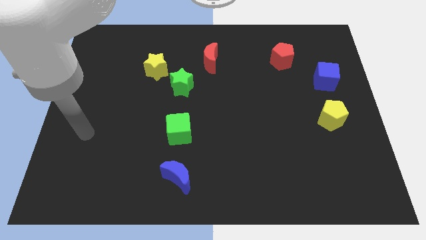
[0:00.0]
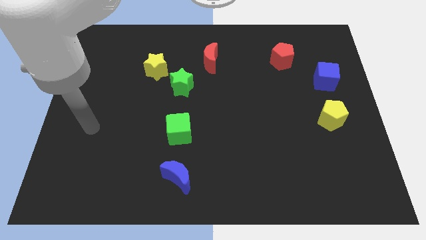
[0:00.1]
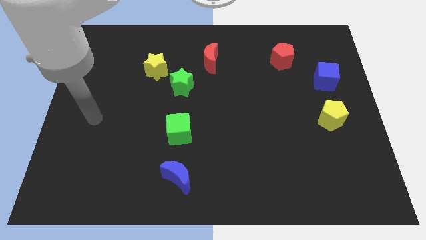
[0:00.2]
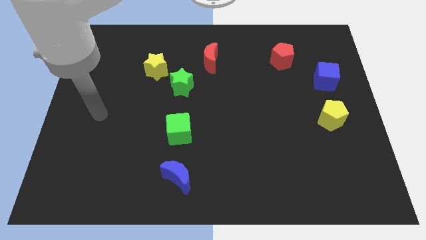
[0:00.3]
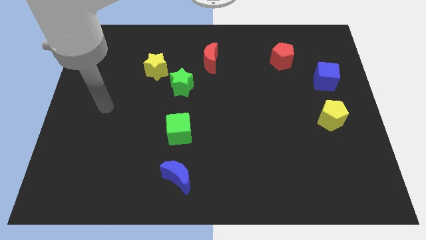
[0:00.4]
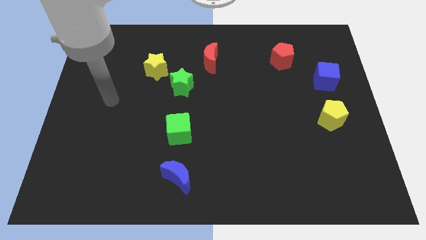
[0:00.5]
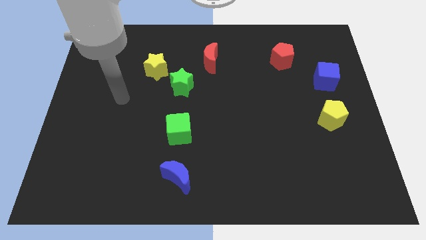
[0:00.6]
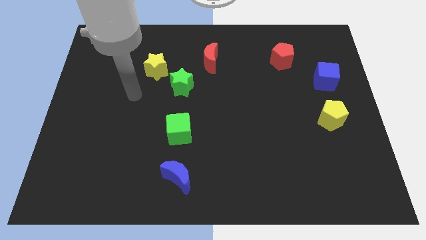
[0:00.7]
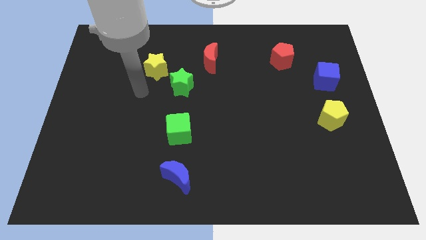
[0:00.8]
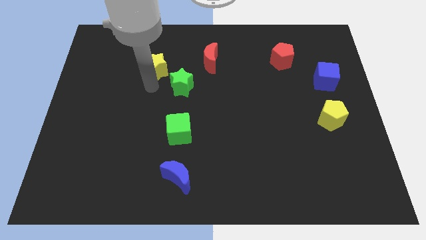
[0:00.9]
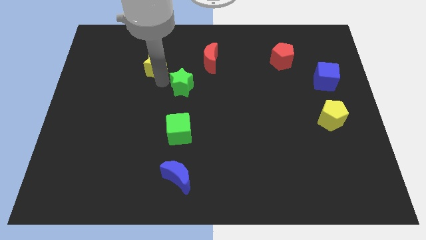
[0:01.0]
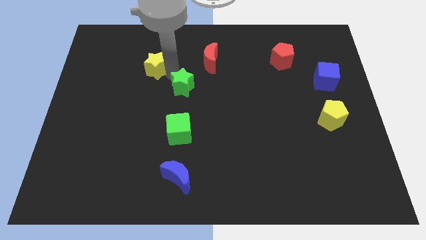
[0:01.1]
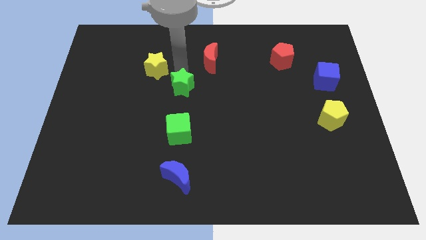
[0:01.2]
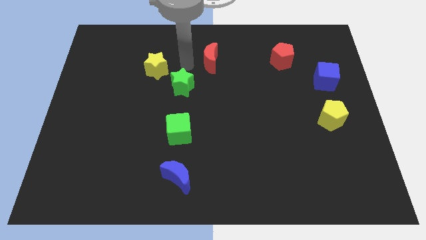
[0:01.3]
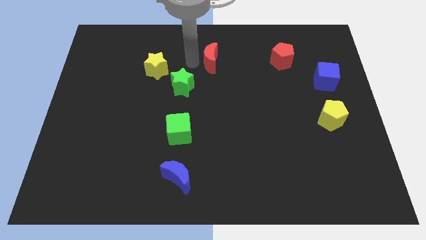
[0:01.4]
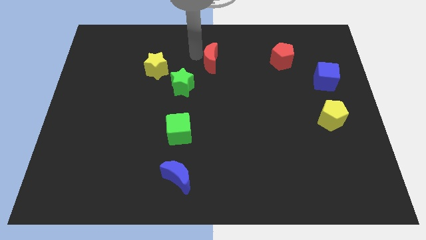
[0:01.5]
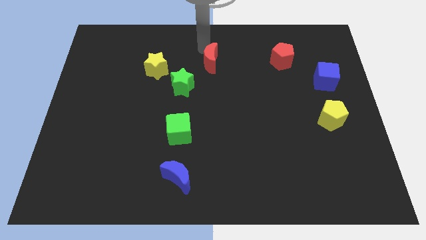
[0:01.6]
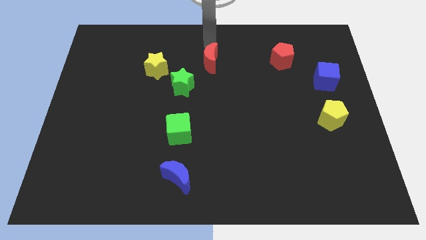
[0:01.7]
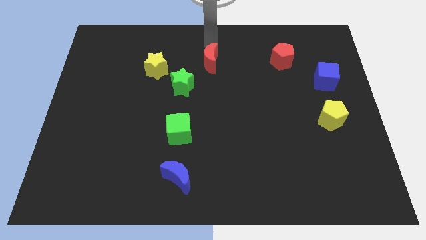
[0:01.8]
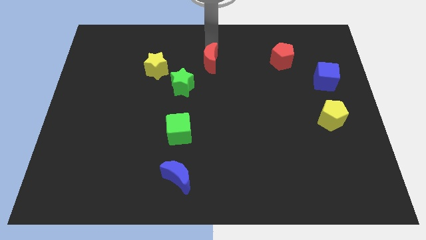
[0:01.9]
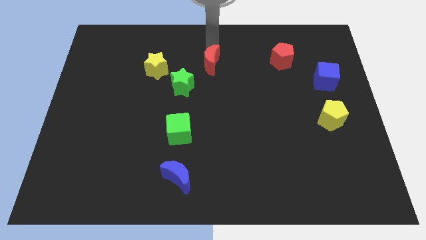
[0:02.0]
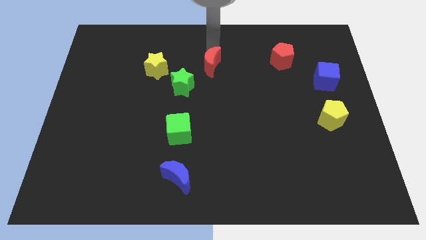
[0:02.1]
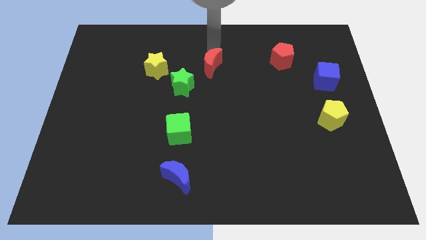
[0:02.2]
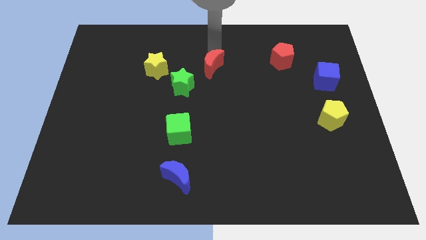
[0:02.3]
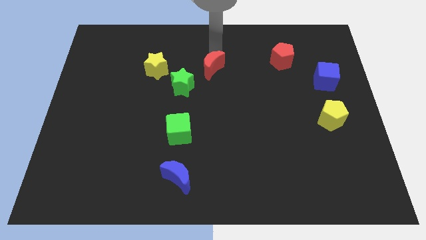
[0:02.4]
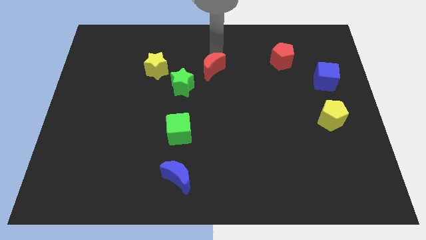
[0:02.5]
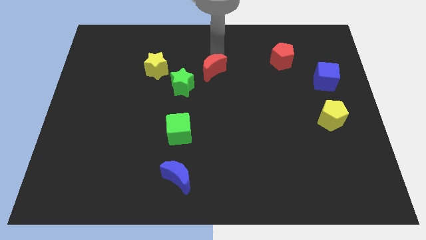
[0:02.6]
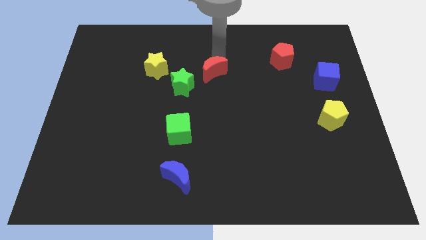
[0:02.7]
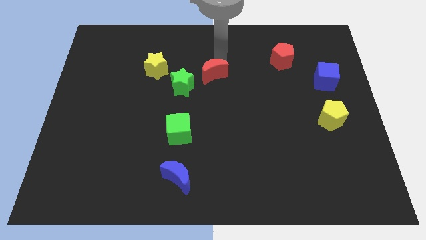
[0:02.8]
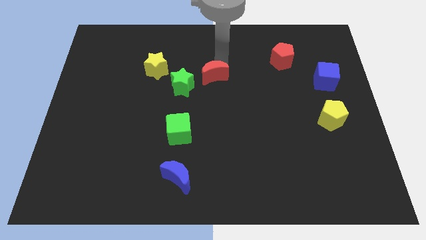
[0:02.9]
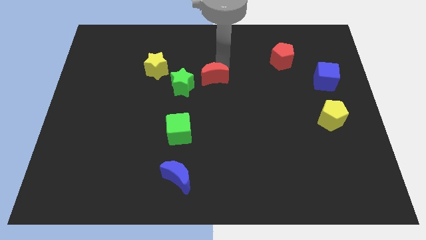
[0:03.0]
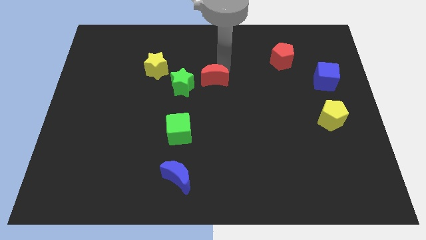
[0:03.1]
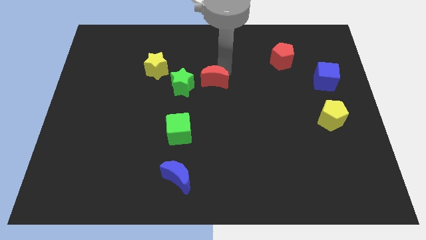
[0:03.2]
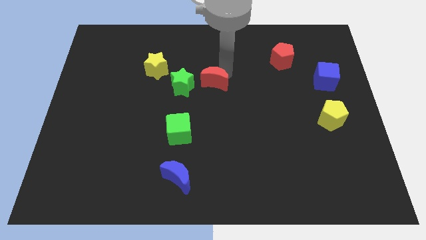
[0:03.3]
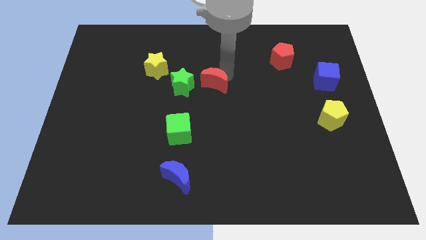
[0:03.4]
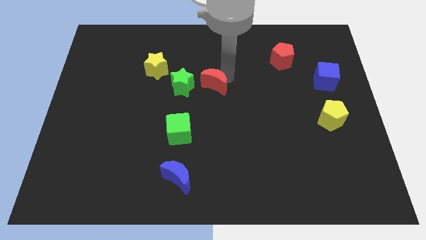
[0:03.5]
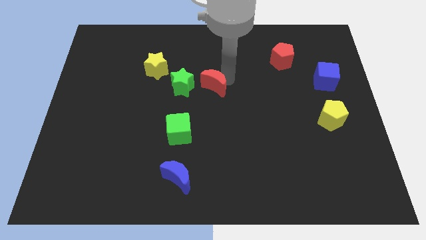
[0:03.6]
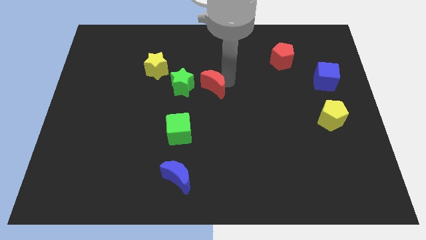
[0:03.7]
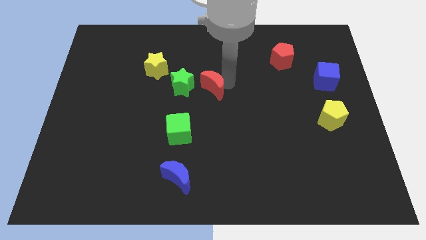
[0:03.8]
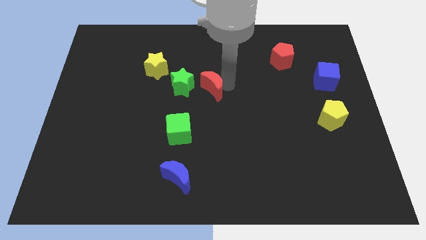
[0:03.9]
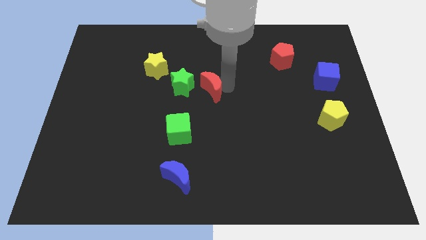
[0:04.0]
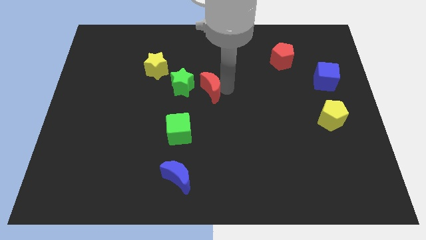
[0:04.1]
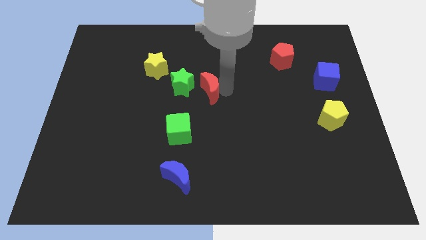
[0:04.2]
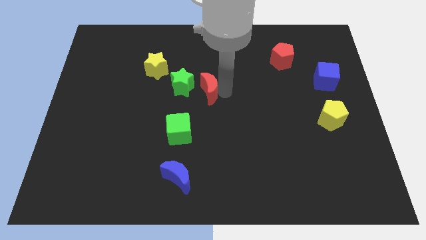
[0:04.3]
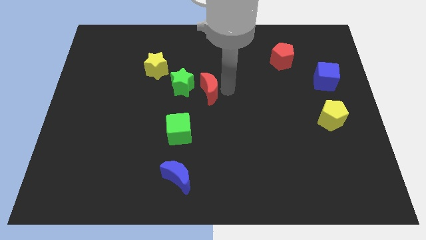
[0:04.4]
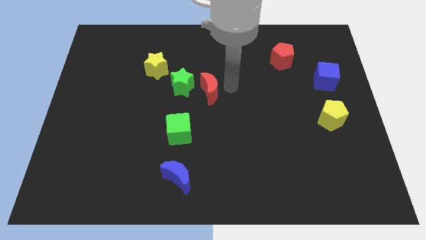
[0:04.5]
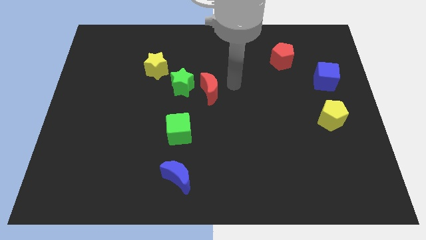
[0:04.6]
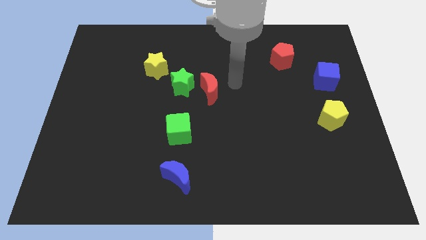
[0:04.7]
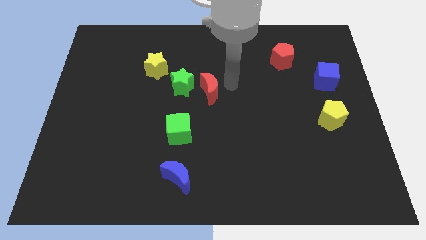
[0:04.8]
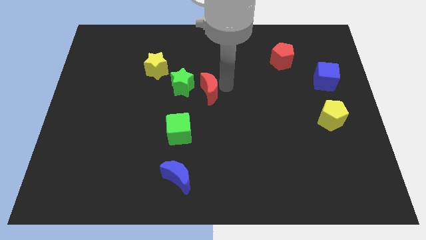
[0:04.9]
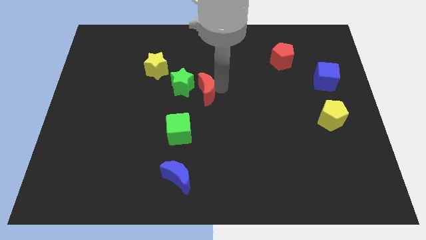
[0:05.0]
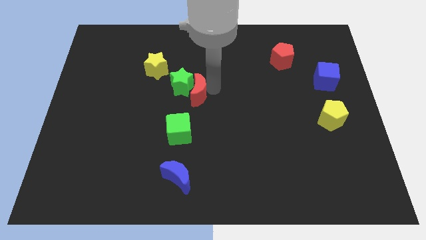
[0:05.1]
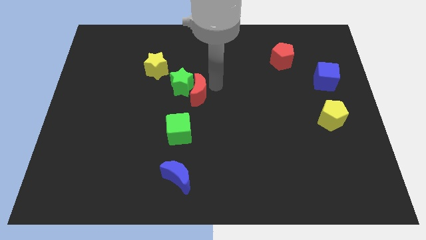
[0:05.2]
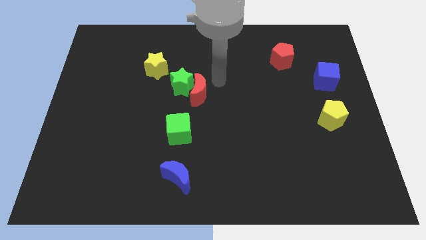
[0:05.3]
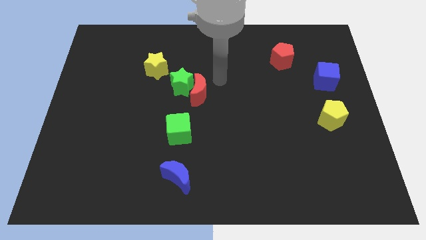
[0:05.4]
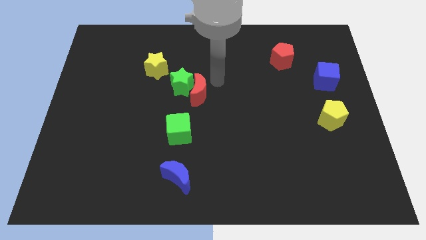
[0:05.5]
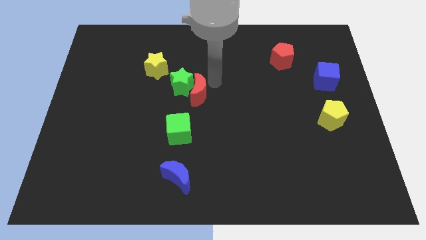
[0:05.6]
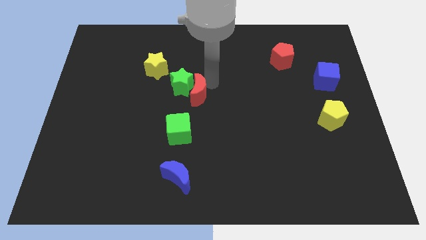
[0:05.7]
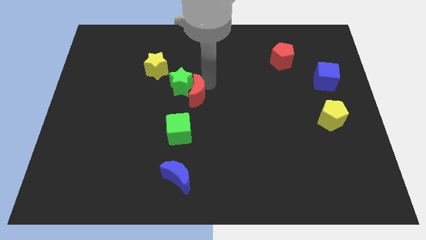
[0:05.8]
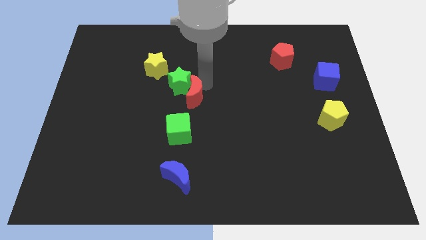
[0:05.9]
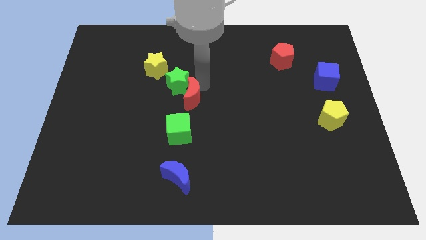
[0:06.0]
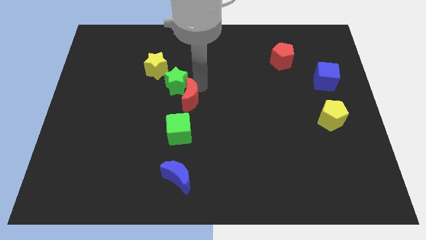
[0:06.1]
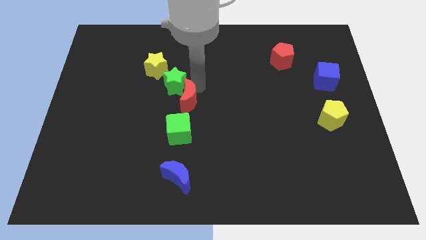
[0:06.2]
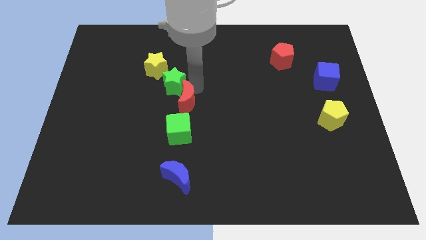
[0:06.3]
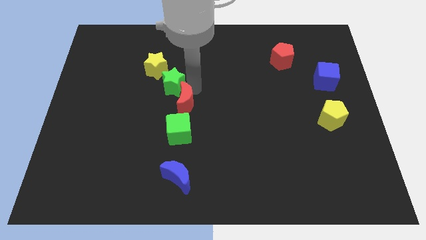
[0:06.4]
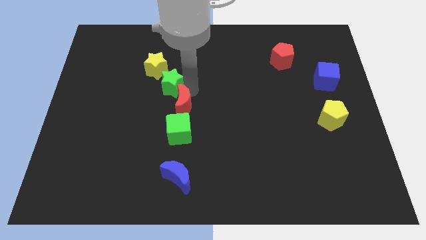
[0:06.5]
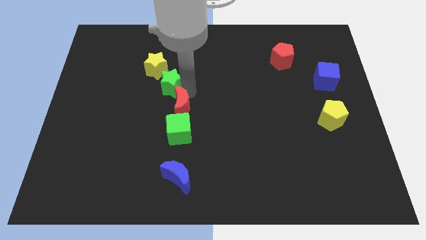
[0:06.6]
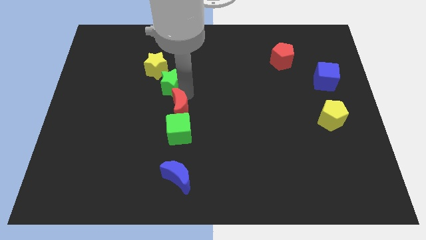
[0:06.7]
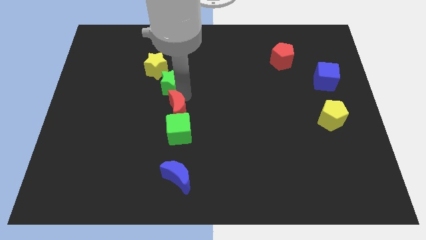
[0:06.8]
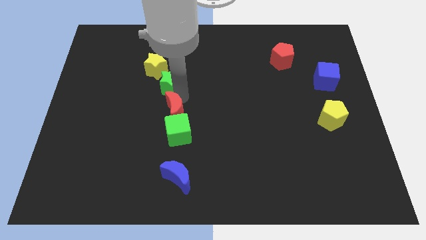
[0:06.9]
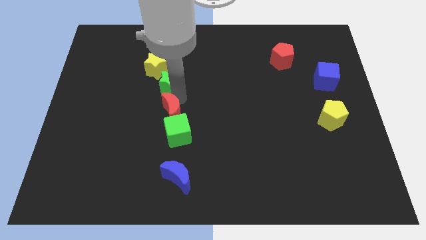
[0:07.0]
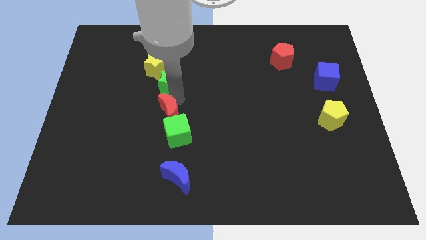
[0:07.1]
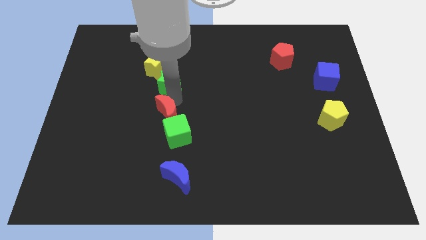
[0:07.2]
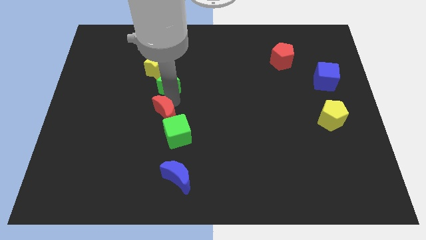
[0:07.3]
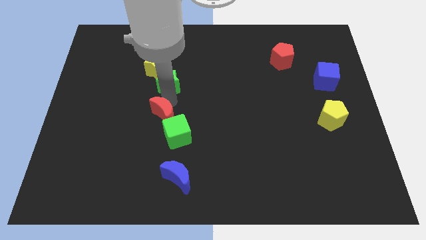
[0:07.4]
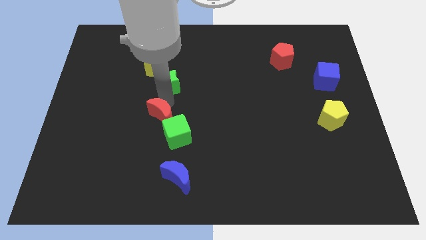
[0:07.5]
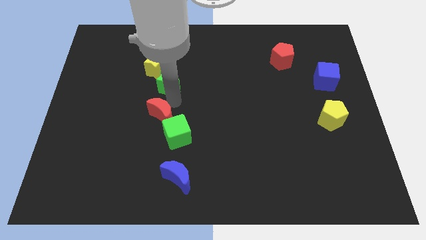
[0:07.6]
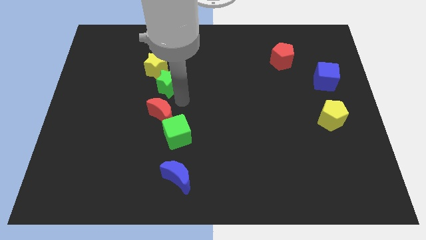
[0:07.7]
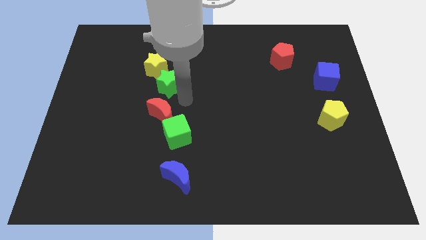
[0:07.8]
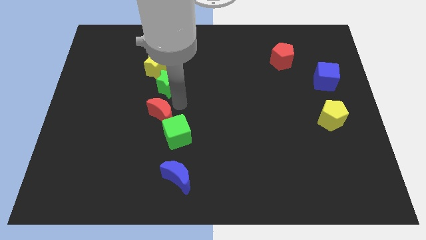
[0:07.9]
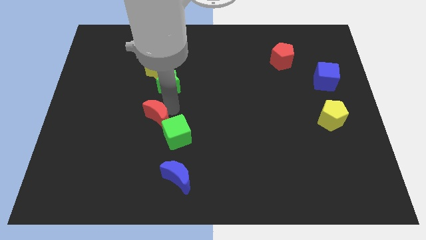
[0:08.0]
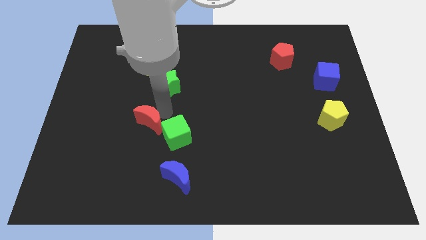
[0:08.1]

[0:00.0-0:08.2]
put the red moon to the left side of the green cube
